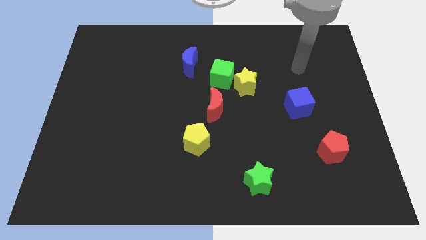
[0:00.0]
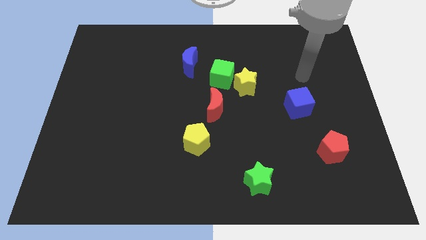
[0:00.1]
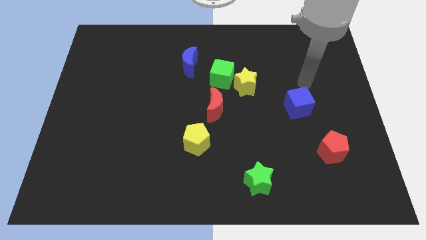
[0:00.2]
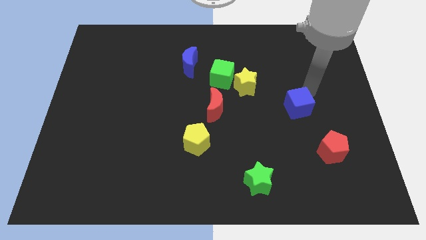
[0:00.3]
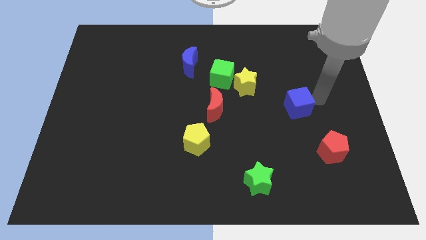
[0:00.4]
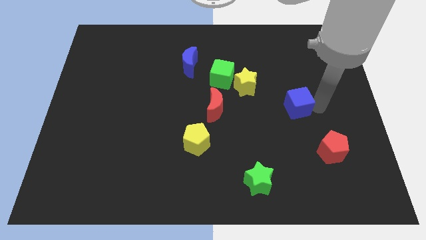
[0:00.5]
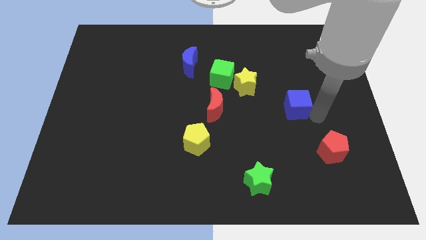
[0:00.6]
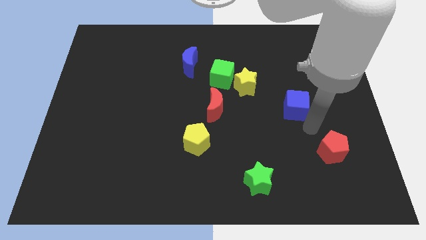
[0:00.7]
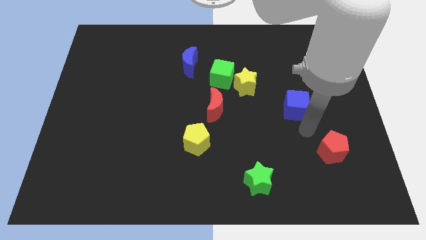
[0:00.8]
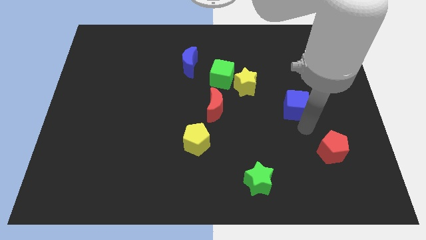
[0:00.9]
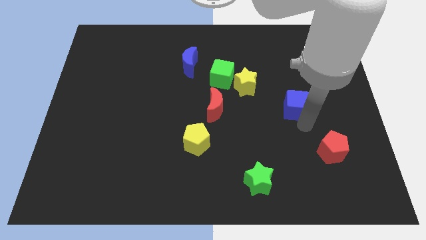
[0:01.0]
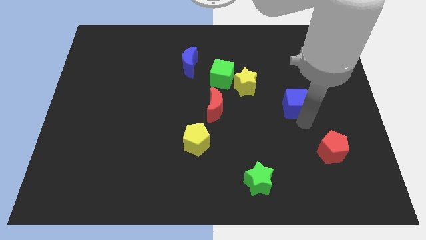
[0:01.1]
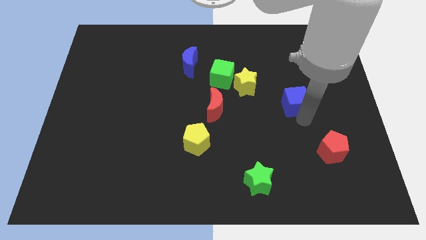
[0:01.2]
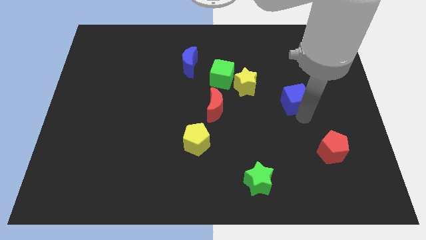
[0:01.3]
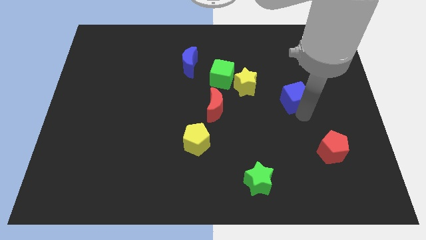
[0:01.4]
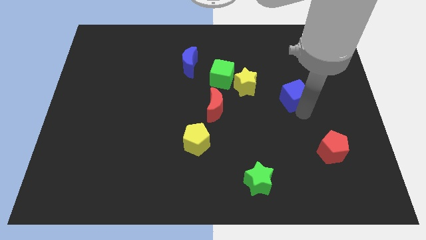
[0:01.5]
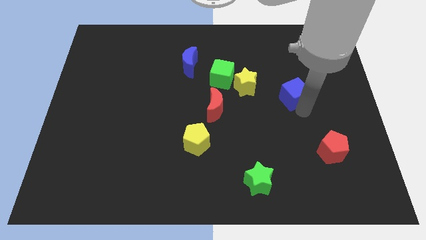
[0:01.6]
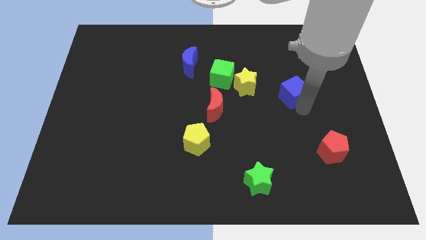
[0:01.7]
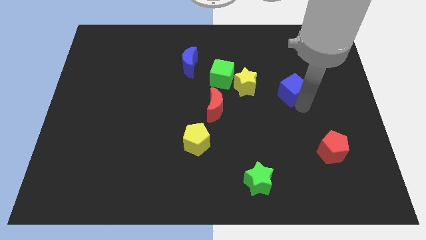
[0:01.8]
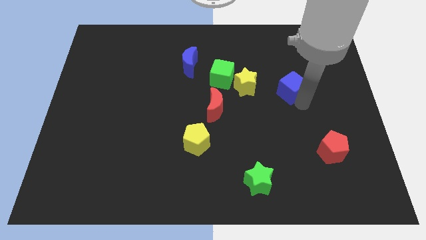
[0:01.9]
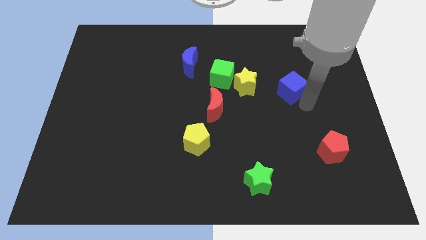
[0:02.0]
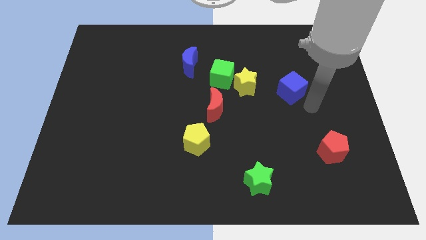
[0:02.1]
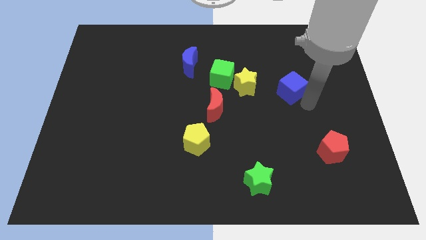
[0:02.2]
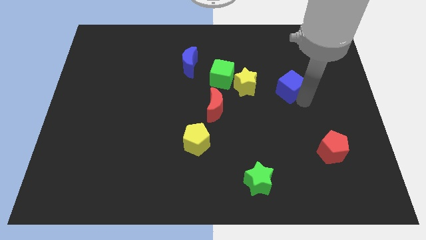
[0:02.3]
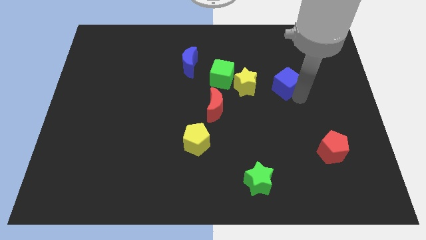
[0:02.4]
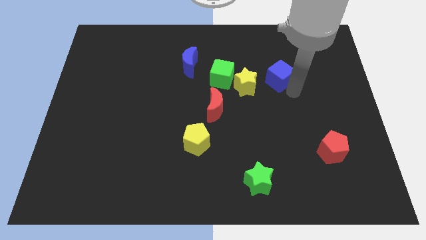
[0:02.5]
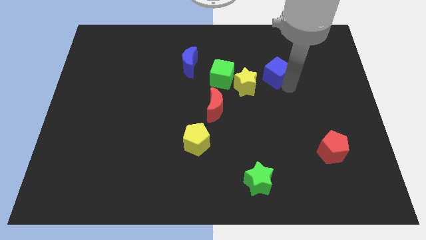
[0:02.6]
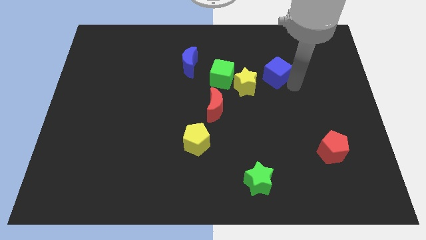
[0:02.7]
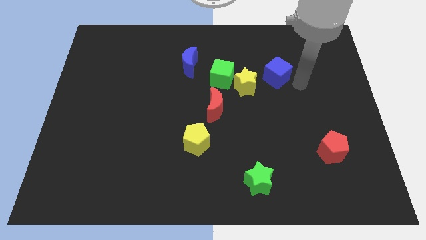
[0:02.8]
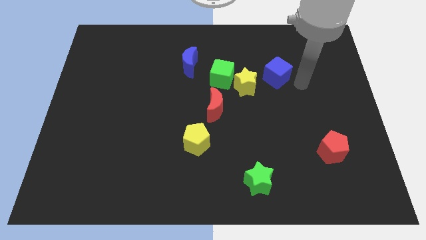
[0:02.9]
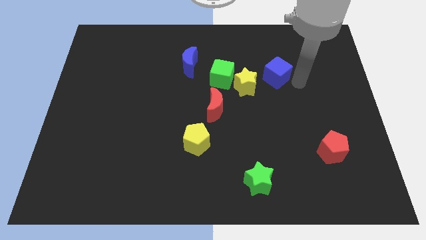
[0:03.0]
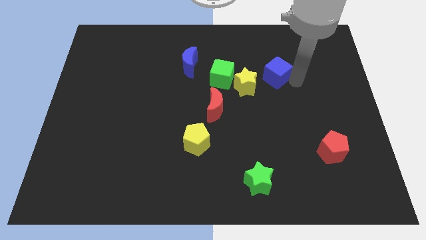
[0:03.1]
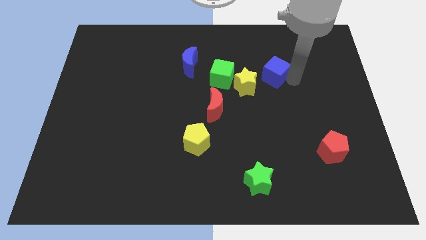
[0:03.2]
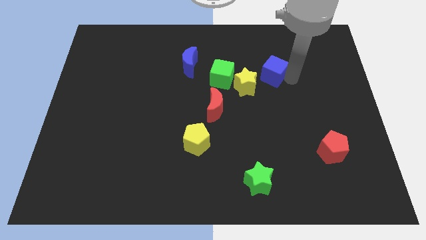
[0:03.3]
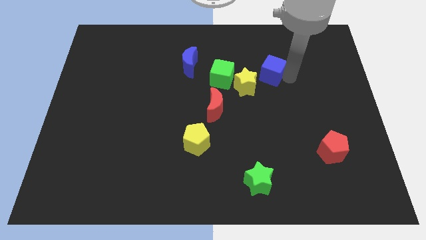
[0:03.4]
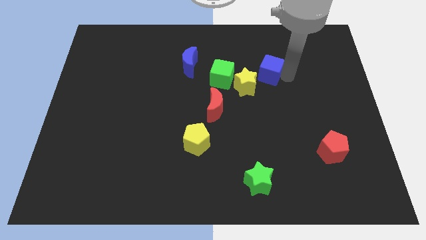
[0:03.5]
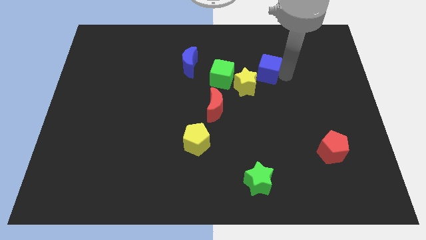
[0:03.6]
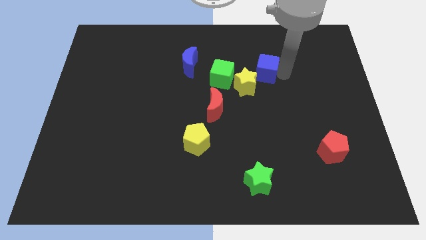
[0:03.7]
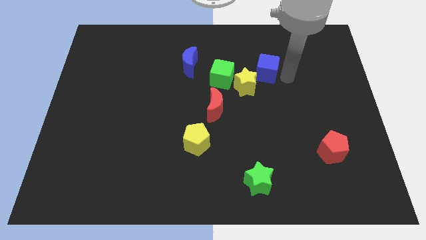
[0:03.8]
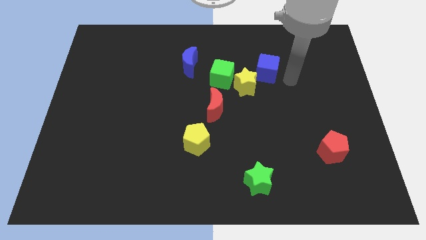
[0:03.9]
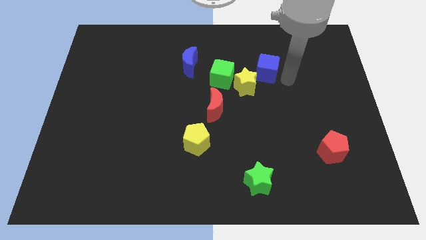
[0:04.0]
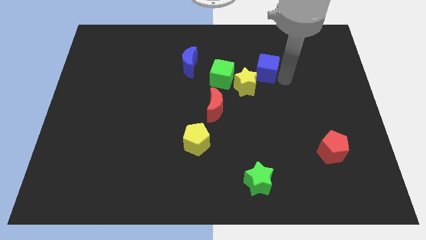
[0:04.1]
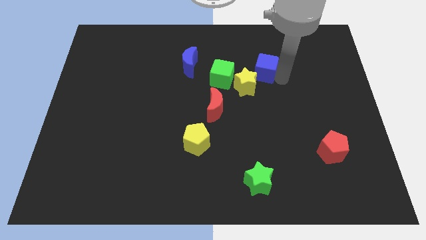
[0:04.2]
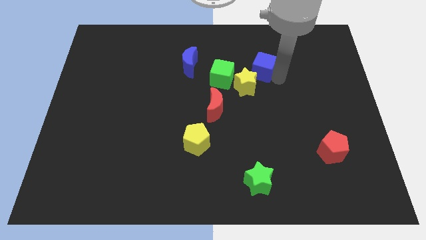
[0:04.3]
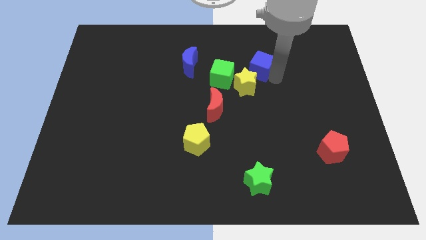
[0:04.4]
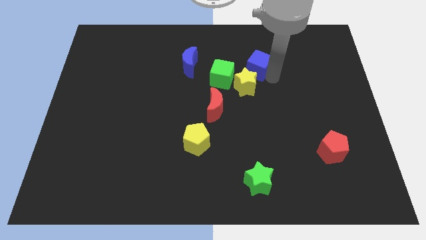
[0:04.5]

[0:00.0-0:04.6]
slide the blue cube to the top right side of the green cube

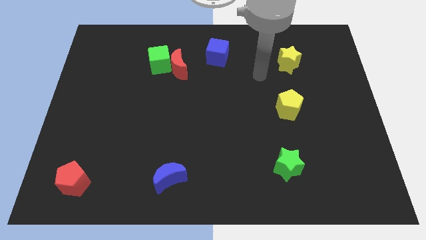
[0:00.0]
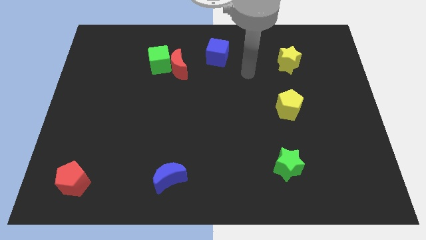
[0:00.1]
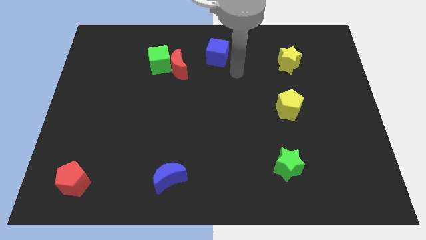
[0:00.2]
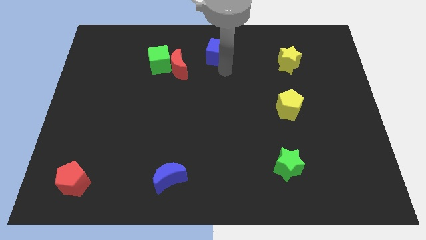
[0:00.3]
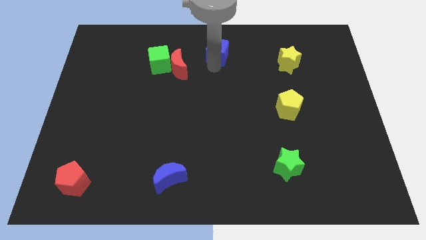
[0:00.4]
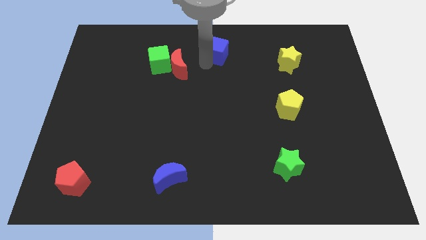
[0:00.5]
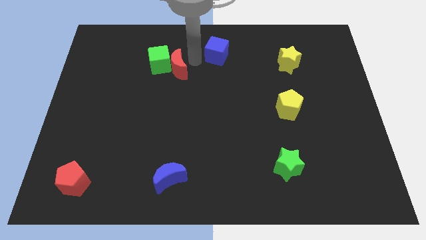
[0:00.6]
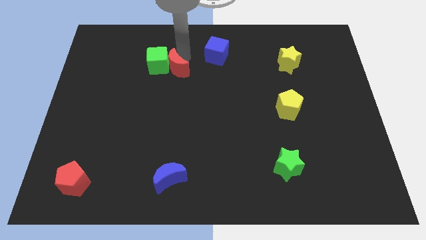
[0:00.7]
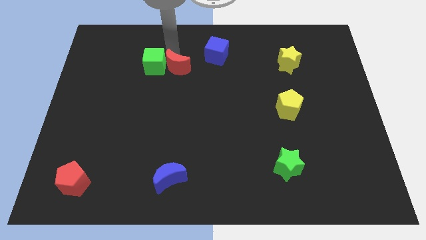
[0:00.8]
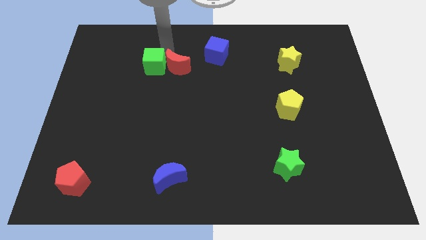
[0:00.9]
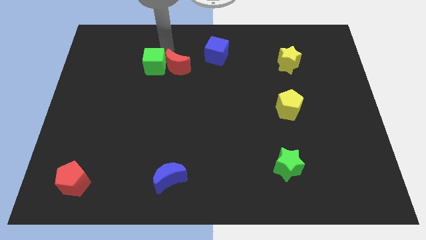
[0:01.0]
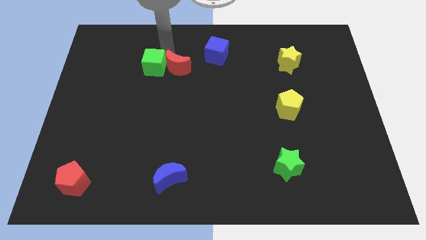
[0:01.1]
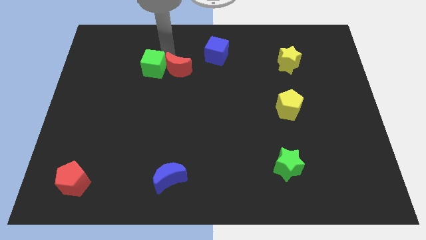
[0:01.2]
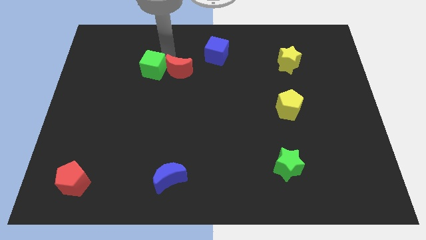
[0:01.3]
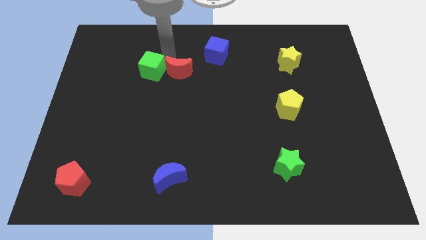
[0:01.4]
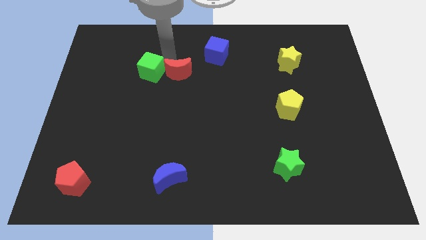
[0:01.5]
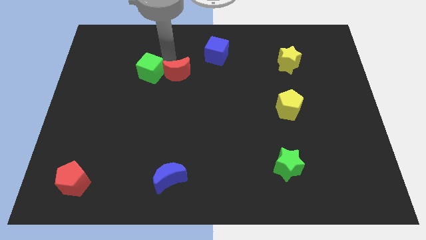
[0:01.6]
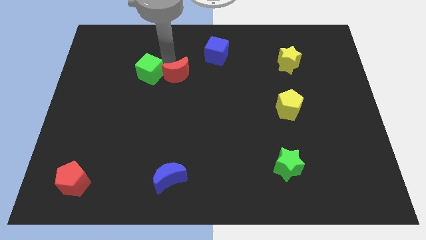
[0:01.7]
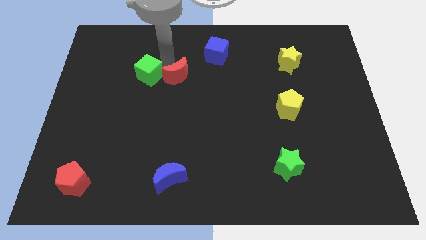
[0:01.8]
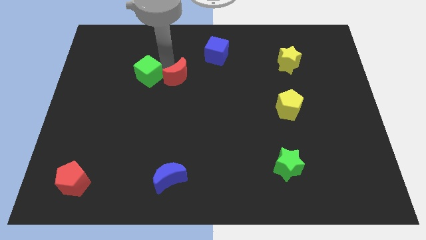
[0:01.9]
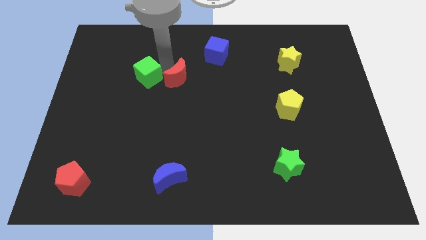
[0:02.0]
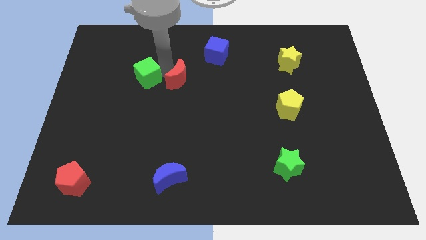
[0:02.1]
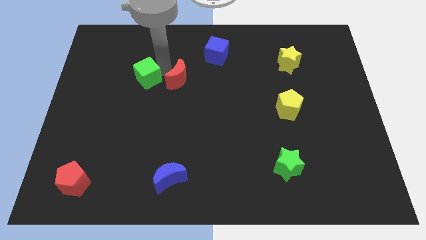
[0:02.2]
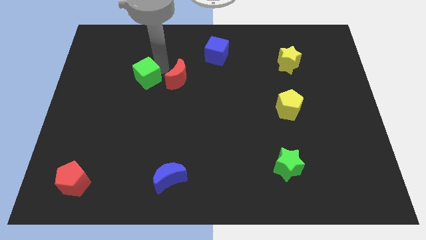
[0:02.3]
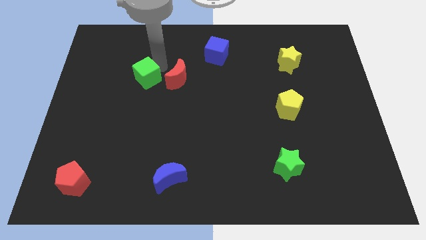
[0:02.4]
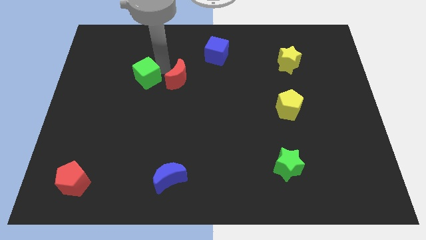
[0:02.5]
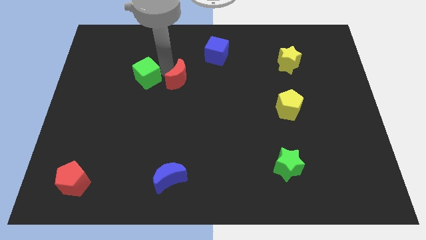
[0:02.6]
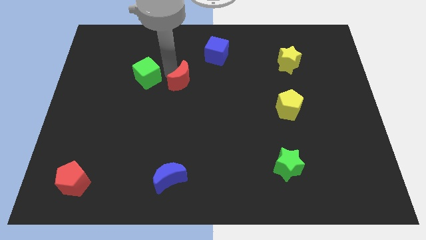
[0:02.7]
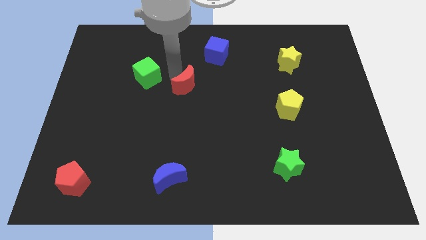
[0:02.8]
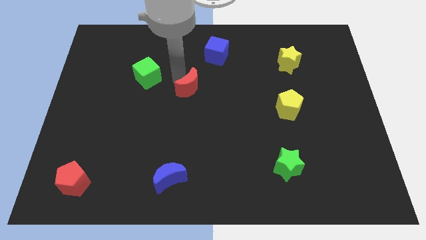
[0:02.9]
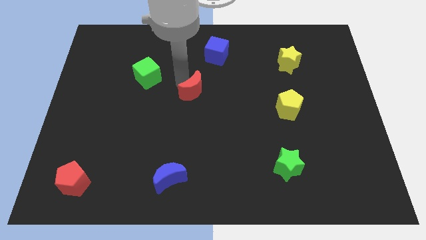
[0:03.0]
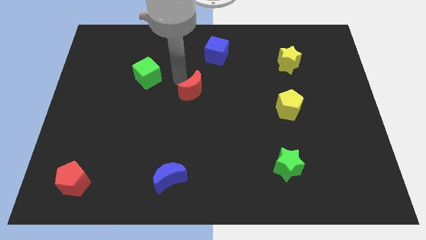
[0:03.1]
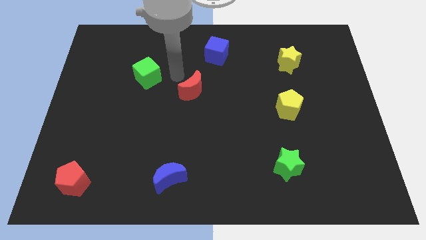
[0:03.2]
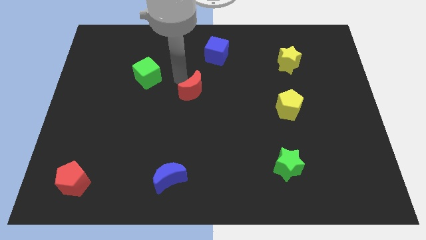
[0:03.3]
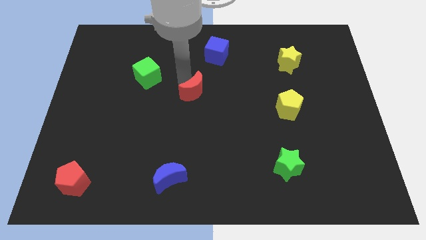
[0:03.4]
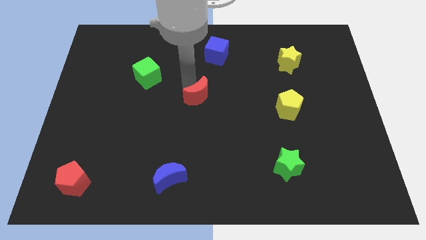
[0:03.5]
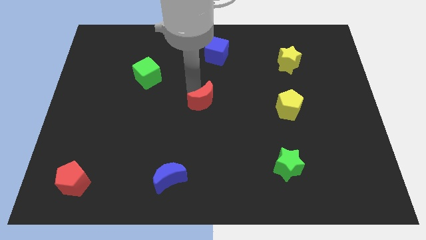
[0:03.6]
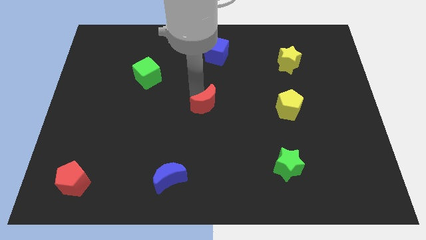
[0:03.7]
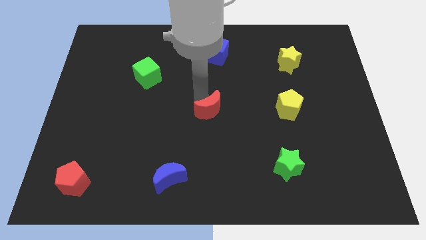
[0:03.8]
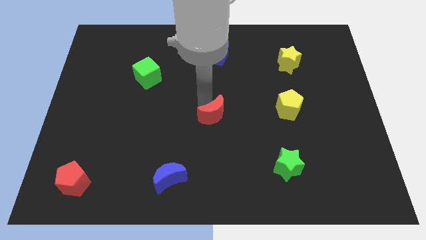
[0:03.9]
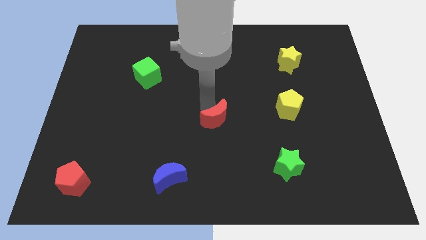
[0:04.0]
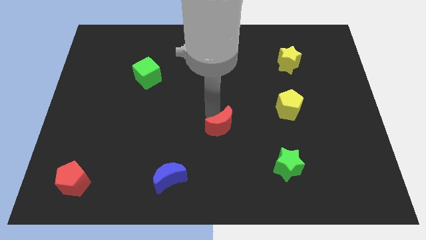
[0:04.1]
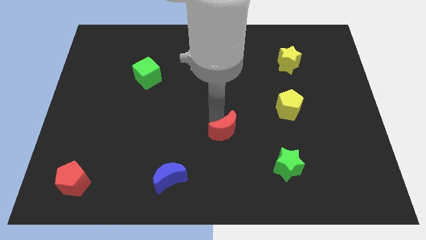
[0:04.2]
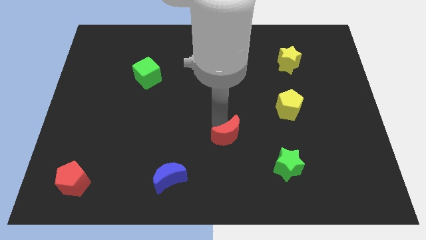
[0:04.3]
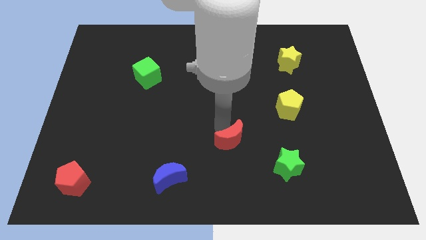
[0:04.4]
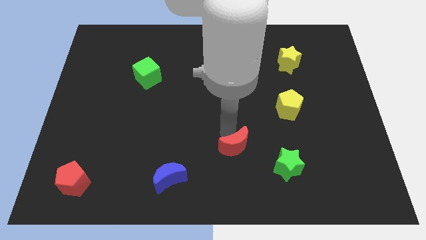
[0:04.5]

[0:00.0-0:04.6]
put the red moon left of the green star
